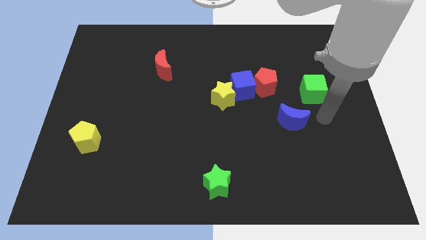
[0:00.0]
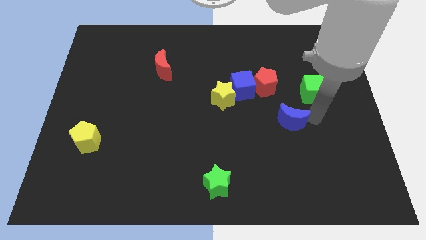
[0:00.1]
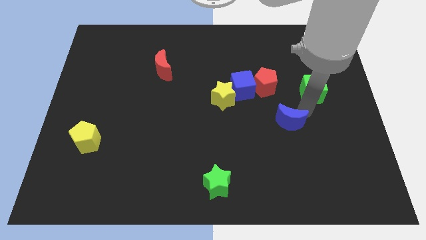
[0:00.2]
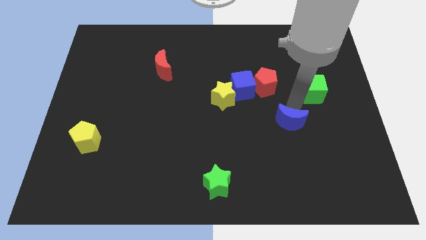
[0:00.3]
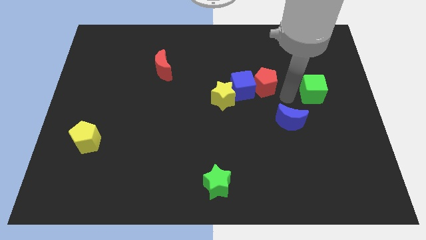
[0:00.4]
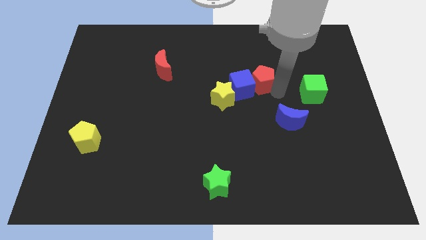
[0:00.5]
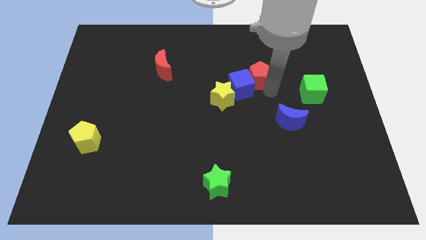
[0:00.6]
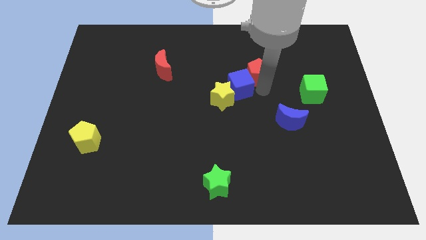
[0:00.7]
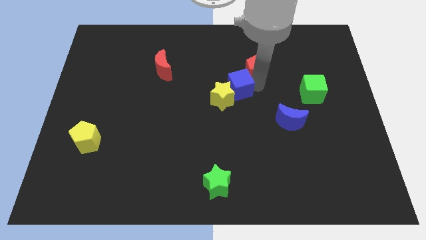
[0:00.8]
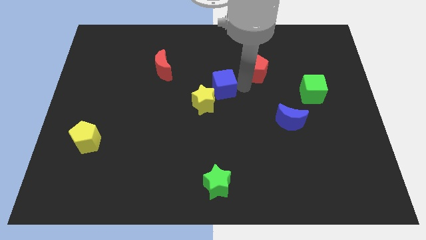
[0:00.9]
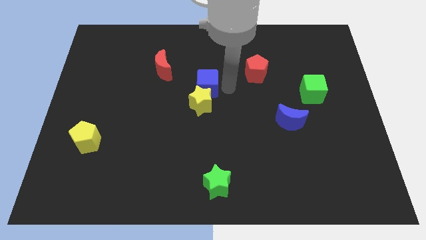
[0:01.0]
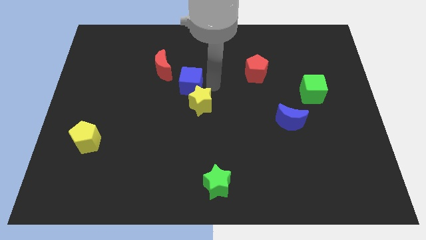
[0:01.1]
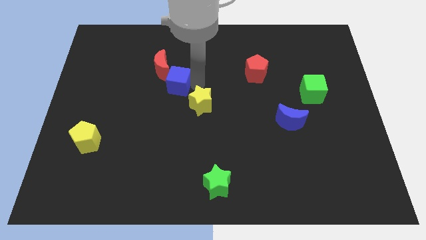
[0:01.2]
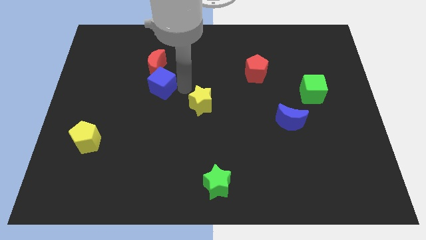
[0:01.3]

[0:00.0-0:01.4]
separate the yellow star from the blue cube

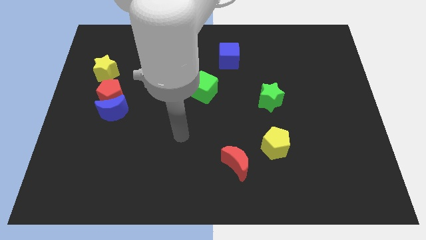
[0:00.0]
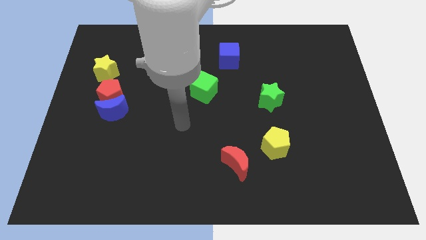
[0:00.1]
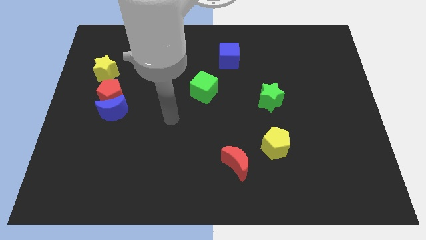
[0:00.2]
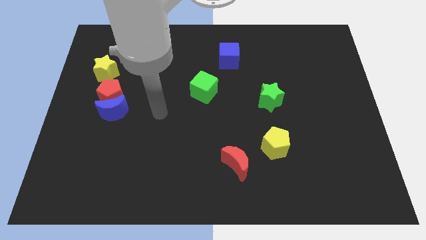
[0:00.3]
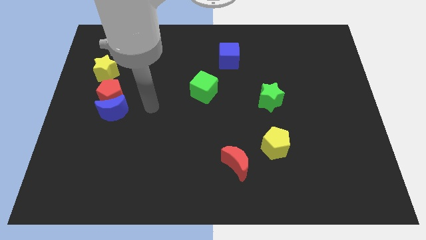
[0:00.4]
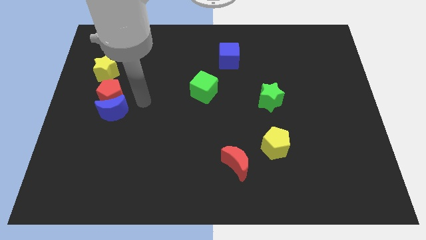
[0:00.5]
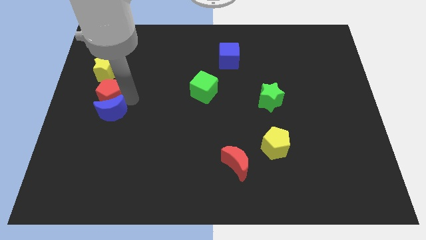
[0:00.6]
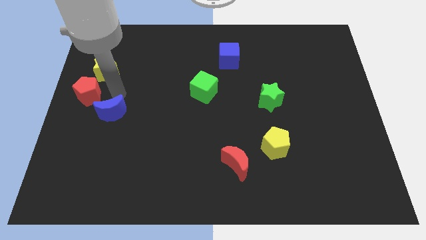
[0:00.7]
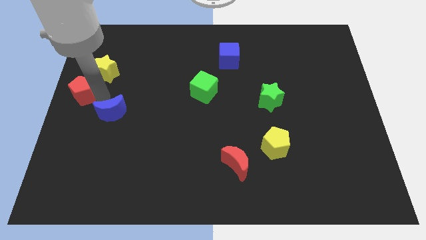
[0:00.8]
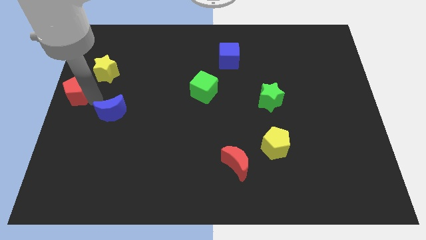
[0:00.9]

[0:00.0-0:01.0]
pull the blue moon apart from the red pentagon

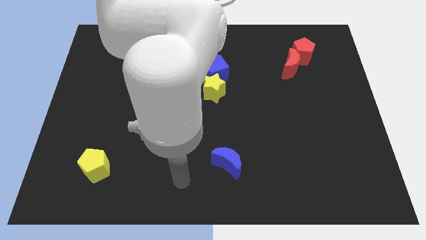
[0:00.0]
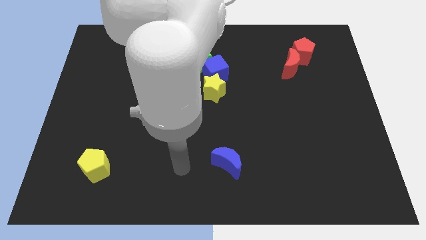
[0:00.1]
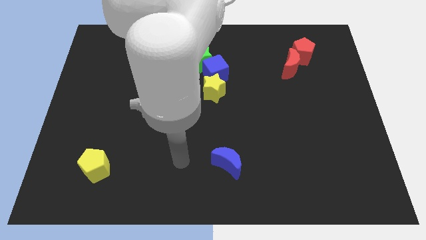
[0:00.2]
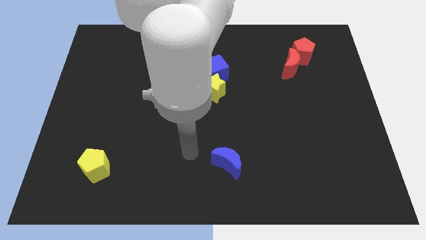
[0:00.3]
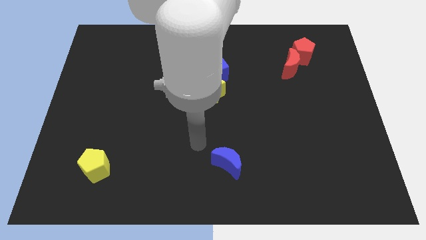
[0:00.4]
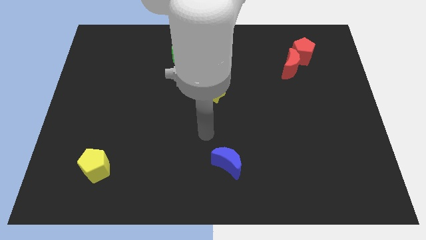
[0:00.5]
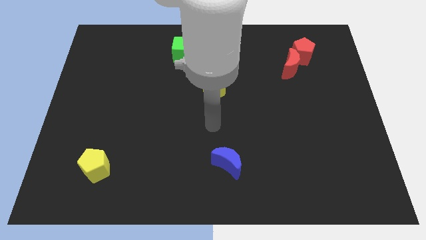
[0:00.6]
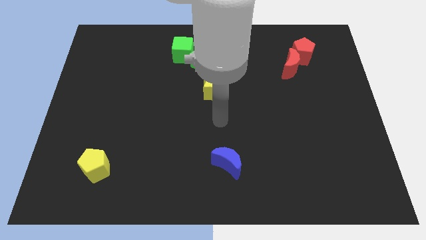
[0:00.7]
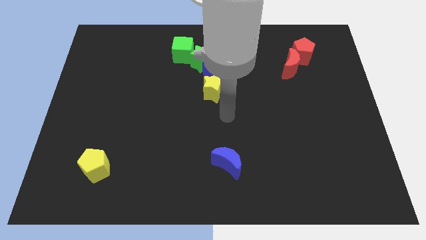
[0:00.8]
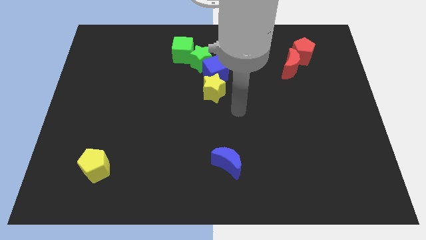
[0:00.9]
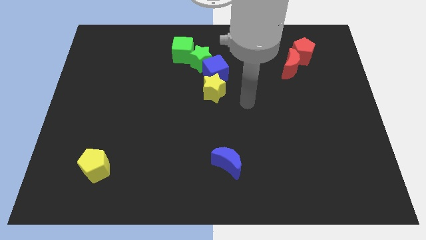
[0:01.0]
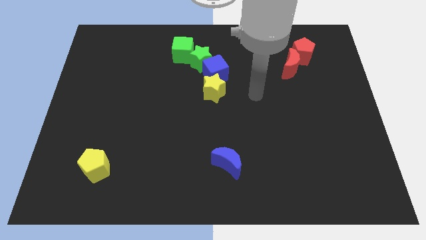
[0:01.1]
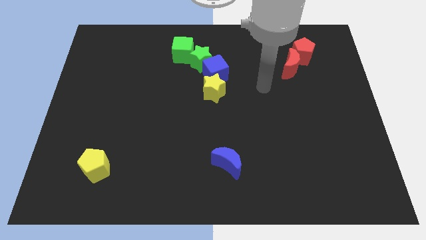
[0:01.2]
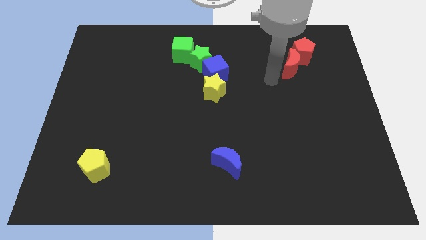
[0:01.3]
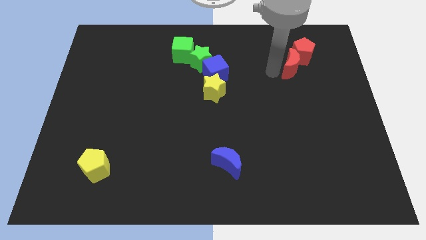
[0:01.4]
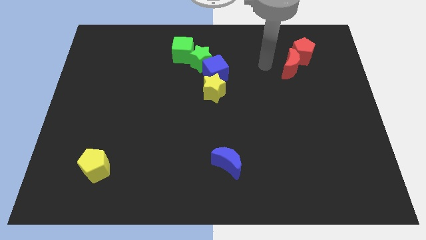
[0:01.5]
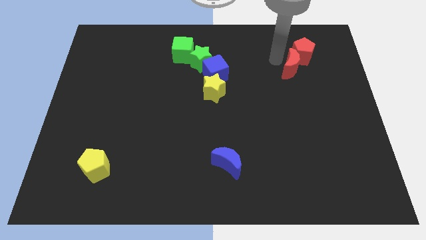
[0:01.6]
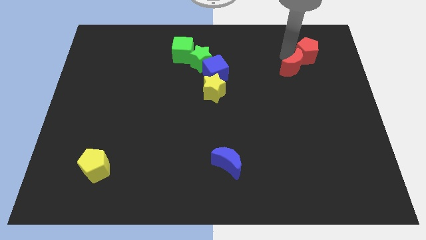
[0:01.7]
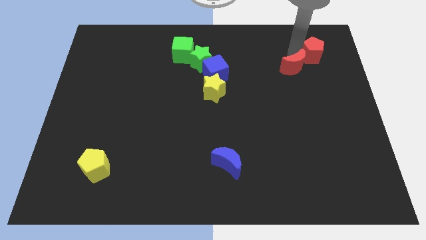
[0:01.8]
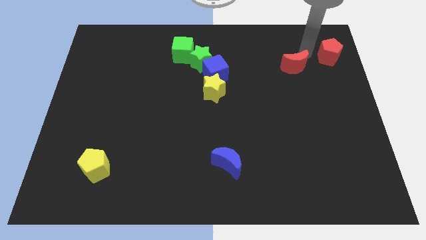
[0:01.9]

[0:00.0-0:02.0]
pull the red moon apart from the red pentagon

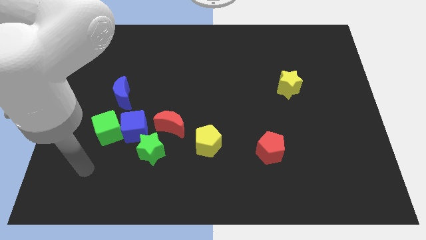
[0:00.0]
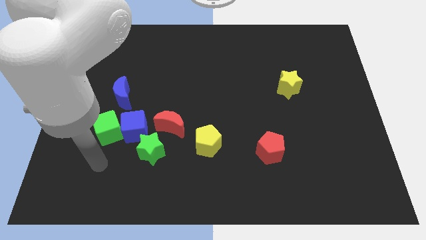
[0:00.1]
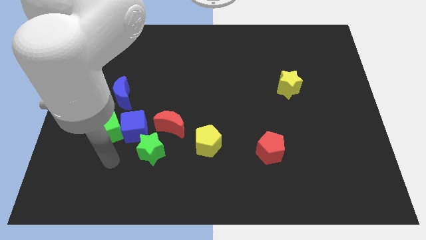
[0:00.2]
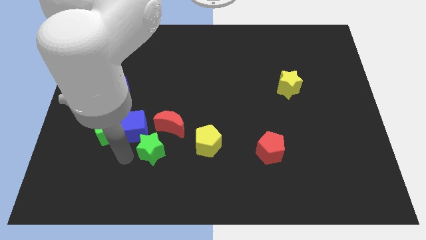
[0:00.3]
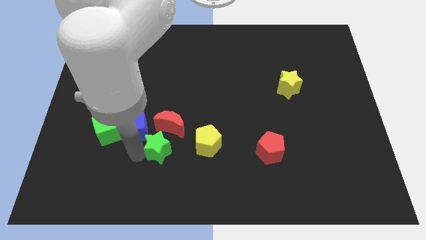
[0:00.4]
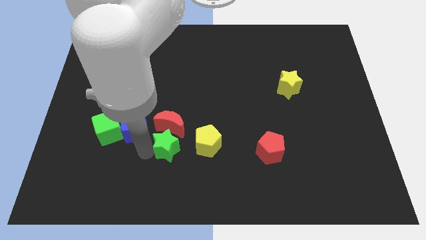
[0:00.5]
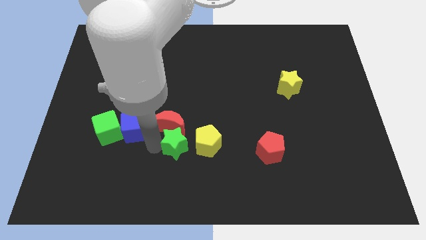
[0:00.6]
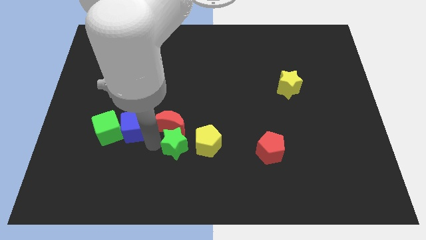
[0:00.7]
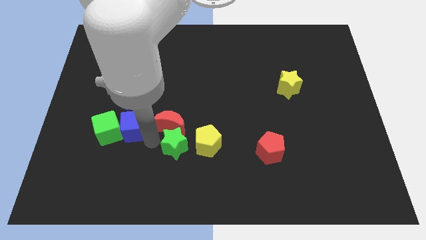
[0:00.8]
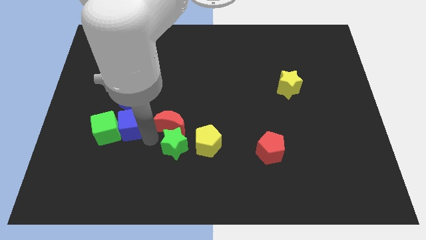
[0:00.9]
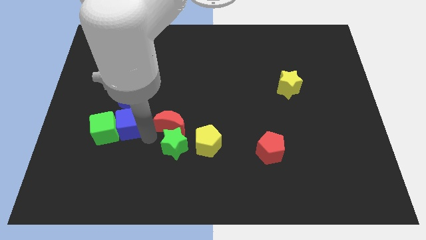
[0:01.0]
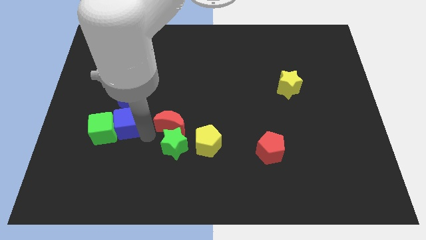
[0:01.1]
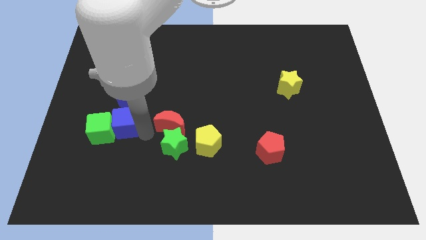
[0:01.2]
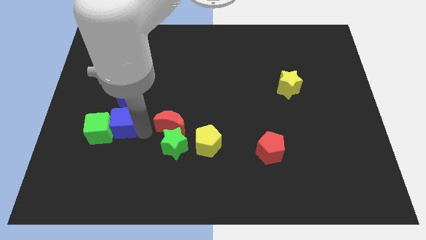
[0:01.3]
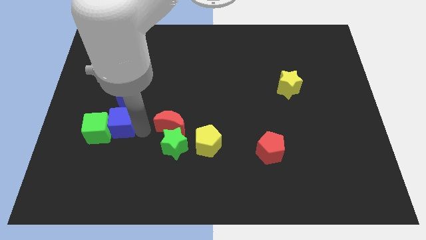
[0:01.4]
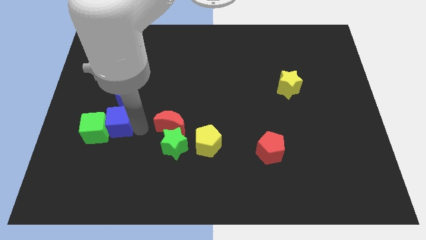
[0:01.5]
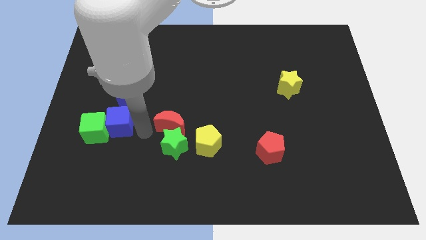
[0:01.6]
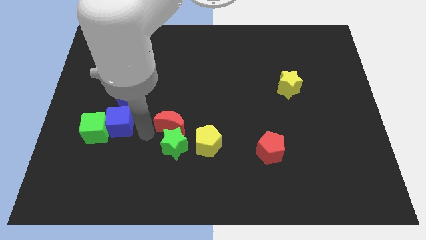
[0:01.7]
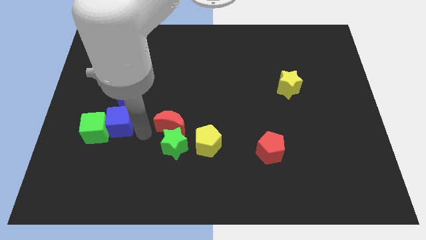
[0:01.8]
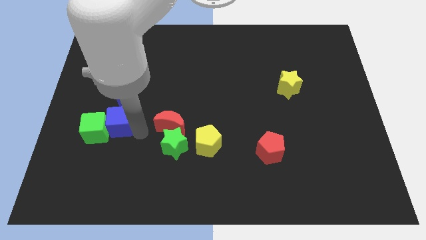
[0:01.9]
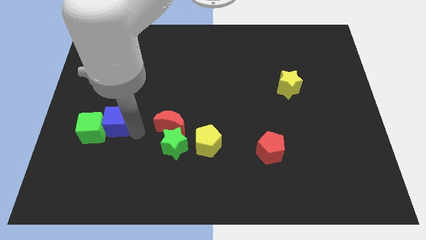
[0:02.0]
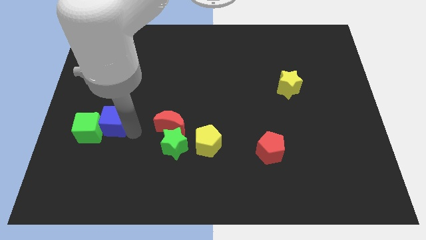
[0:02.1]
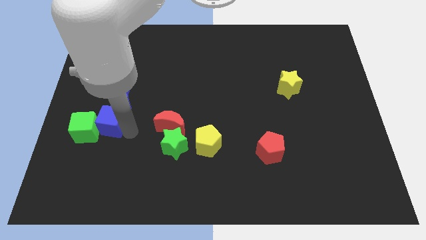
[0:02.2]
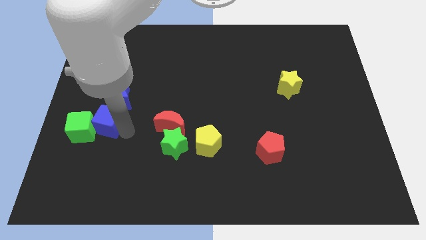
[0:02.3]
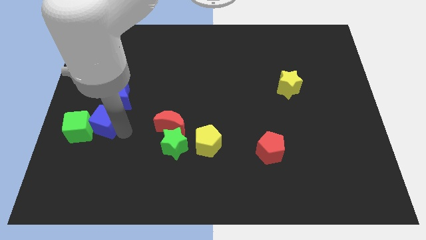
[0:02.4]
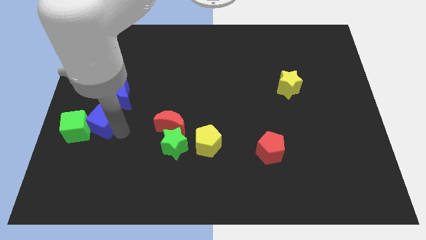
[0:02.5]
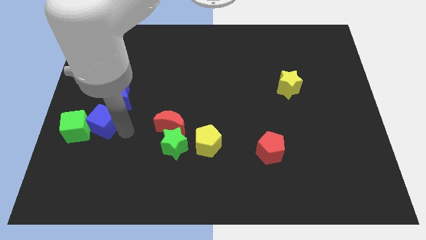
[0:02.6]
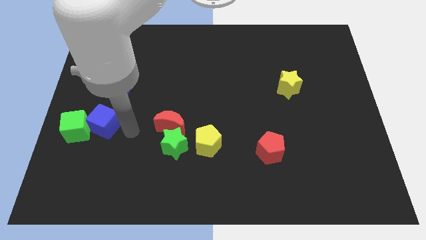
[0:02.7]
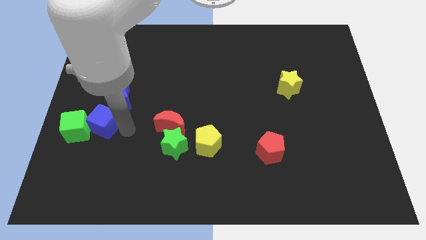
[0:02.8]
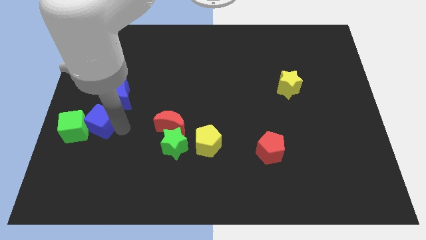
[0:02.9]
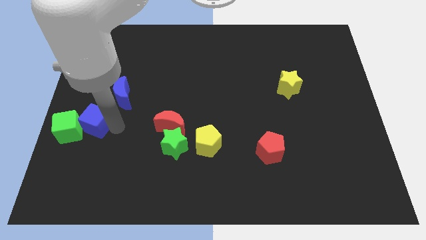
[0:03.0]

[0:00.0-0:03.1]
move the blue cube away from the clump

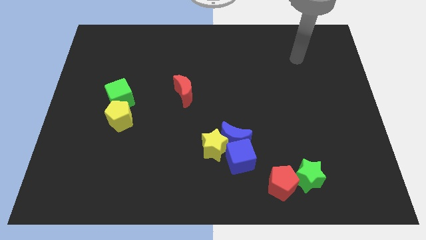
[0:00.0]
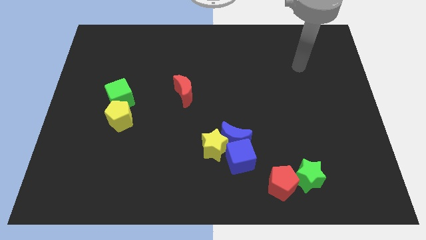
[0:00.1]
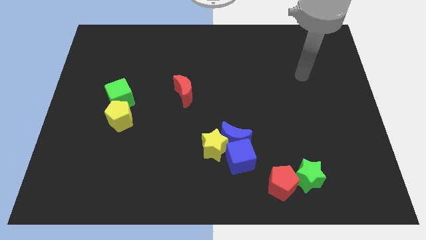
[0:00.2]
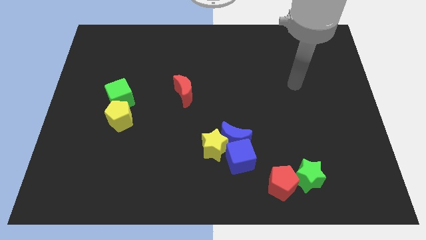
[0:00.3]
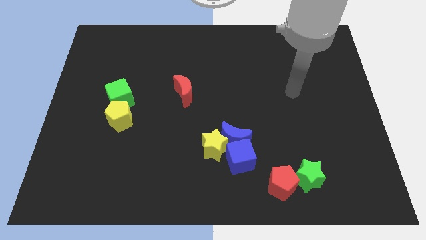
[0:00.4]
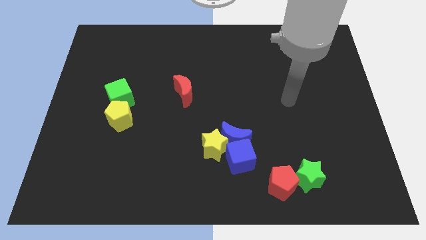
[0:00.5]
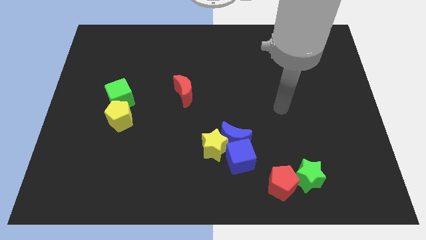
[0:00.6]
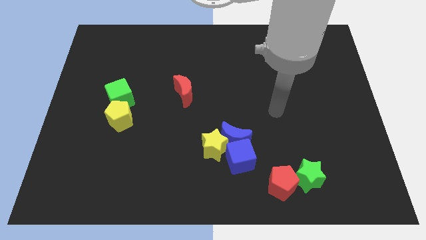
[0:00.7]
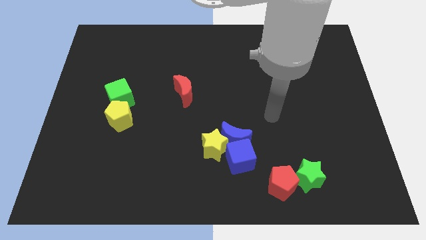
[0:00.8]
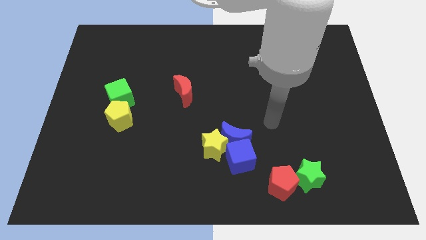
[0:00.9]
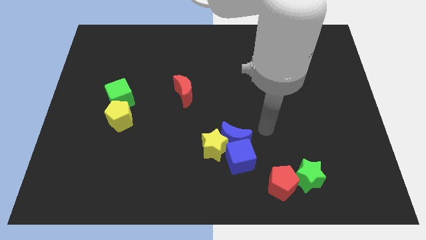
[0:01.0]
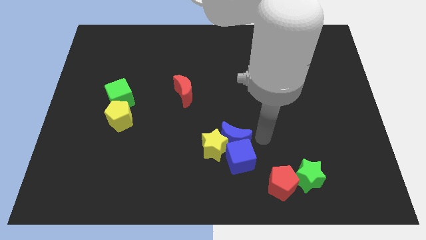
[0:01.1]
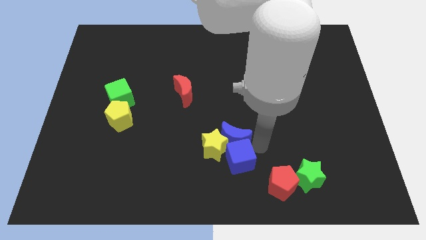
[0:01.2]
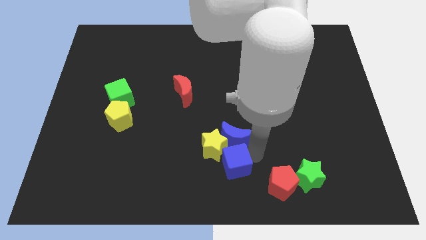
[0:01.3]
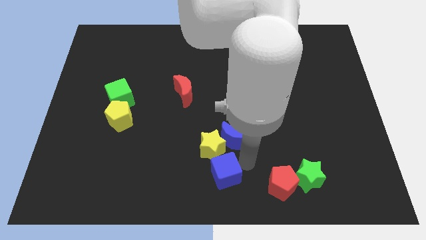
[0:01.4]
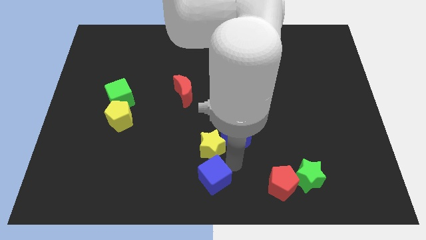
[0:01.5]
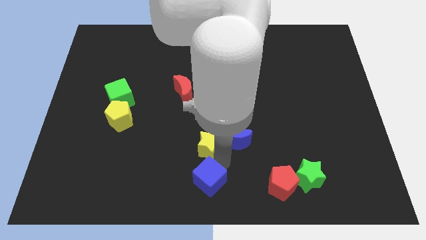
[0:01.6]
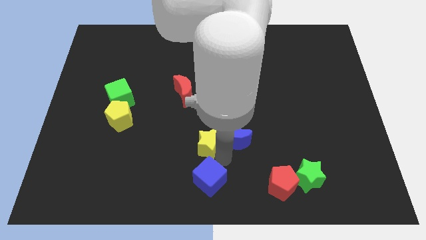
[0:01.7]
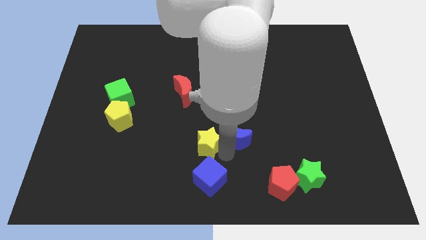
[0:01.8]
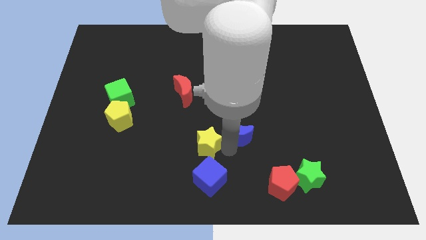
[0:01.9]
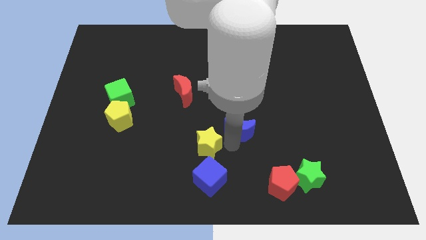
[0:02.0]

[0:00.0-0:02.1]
separate the blue moon from the blue cube and yellow star
